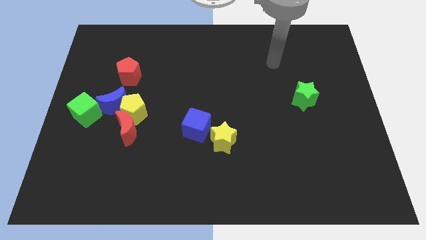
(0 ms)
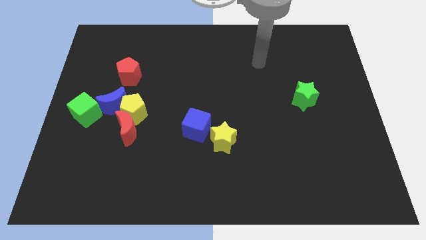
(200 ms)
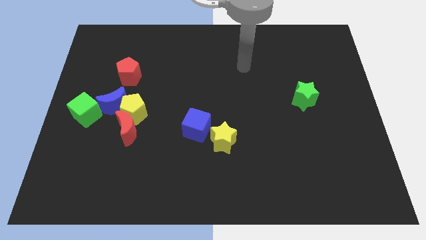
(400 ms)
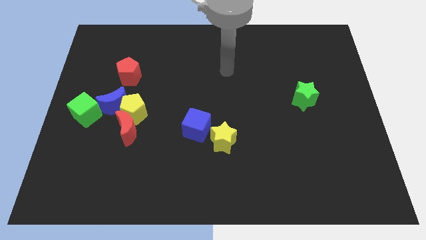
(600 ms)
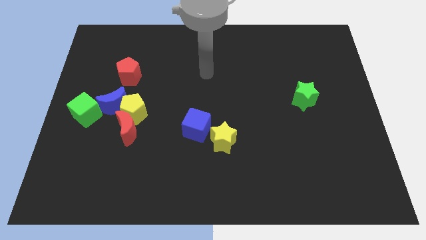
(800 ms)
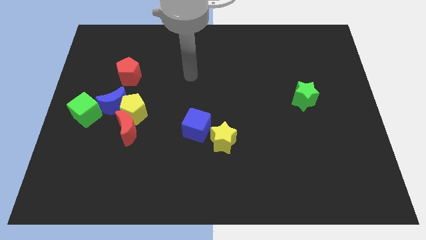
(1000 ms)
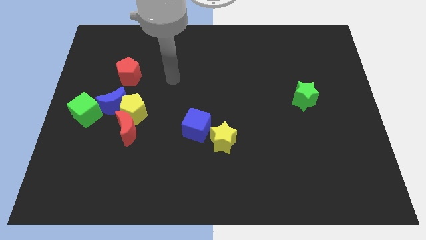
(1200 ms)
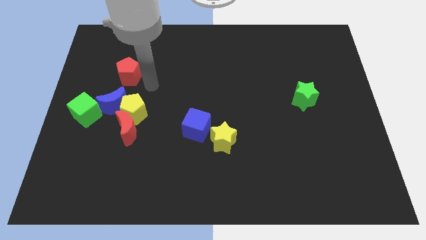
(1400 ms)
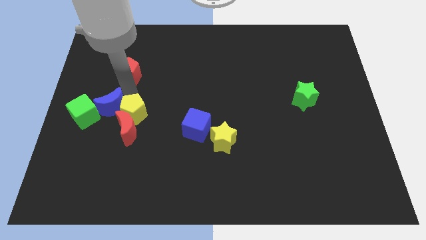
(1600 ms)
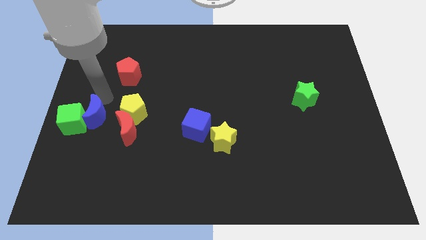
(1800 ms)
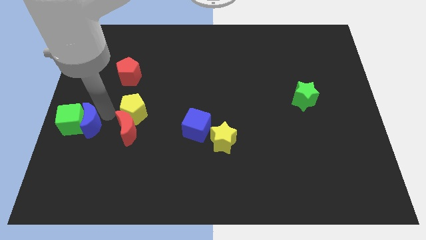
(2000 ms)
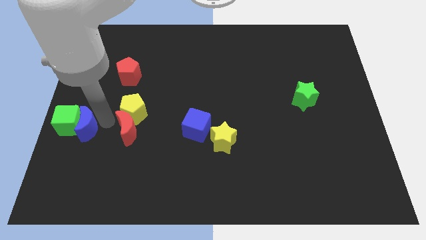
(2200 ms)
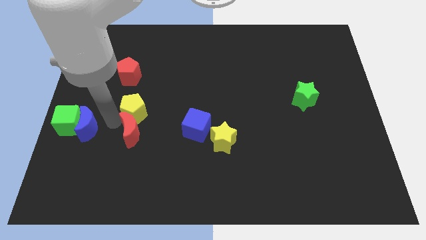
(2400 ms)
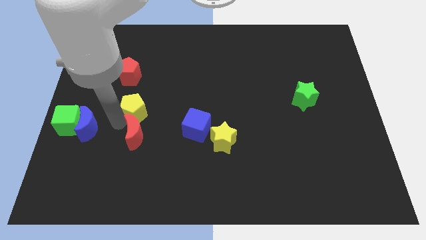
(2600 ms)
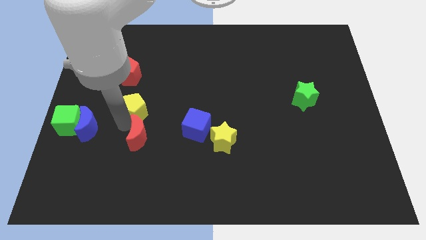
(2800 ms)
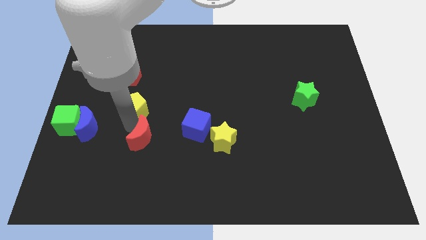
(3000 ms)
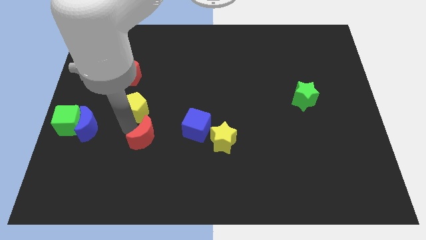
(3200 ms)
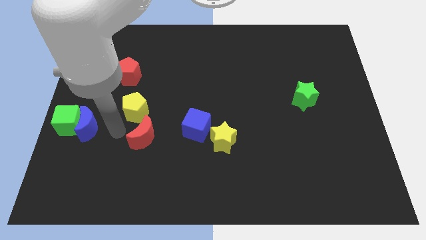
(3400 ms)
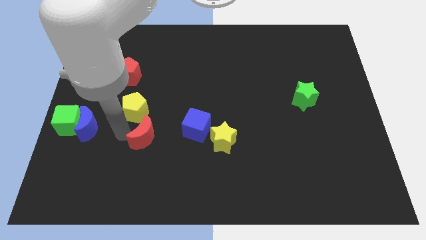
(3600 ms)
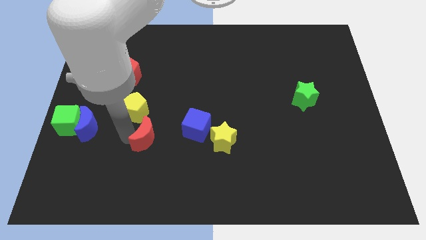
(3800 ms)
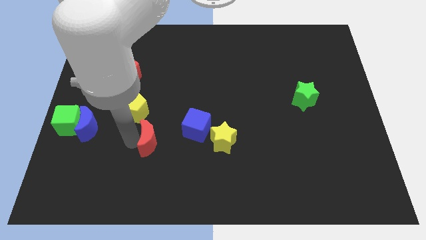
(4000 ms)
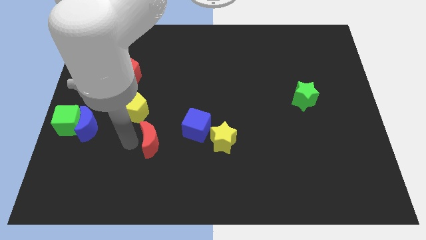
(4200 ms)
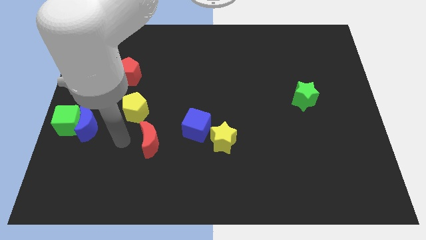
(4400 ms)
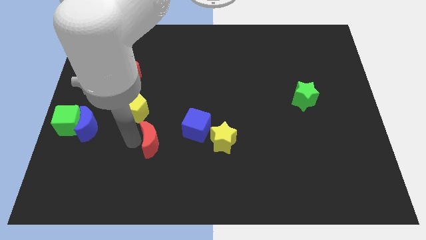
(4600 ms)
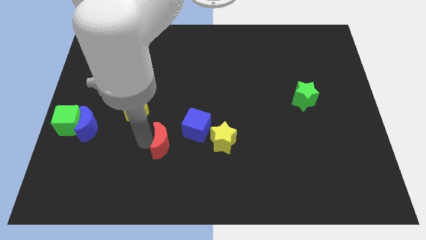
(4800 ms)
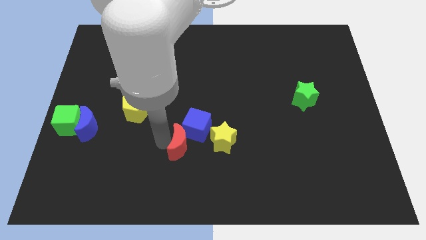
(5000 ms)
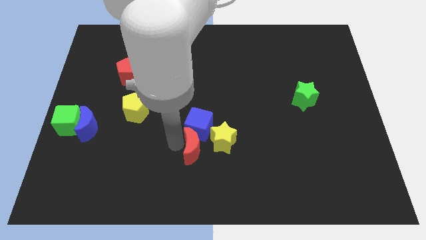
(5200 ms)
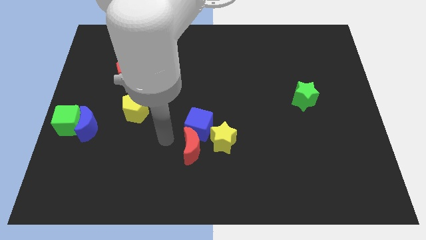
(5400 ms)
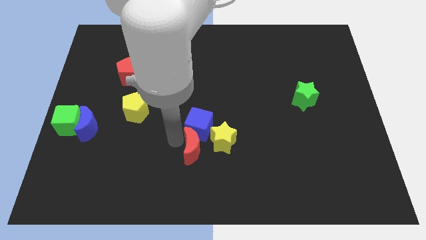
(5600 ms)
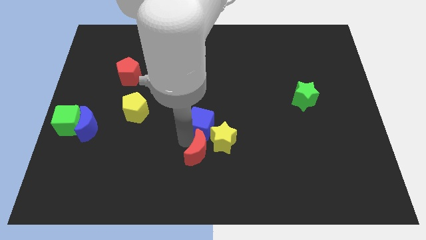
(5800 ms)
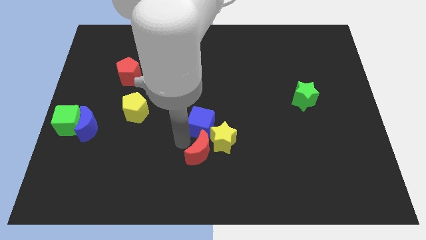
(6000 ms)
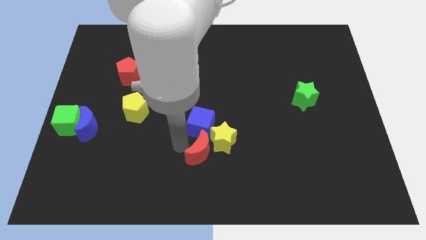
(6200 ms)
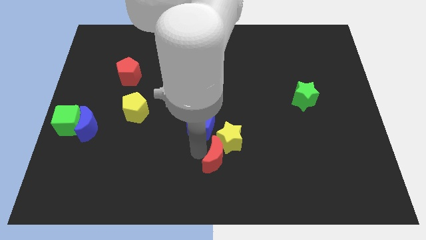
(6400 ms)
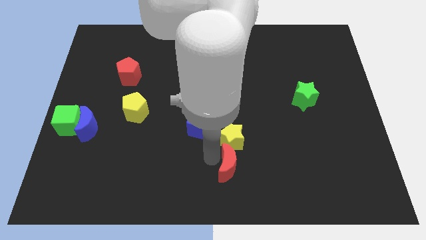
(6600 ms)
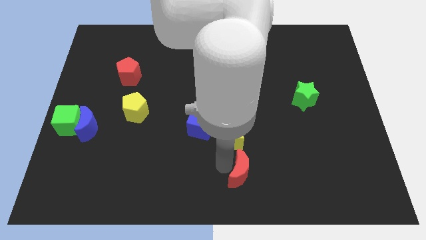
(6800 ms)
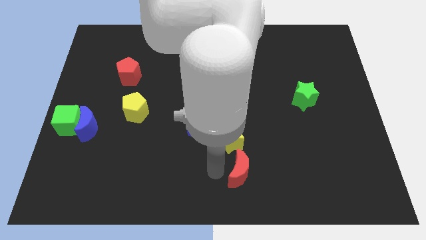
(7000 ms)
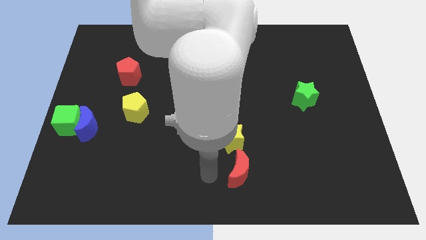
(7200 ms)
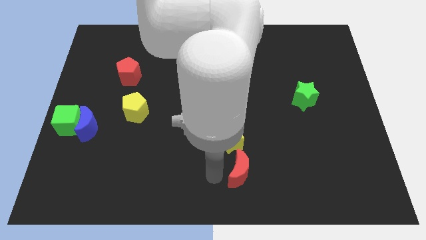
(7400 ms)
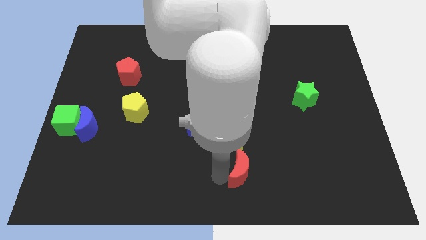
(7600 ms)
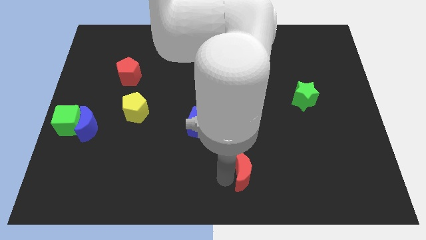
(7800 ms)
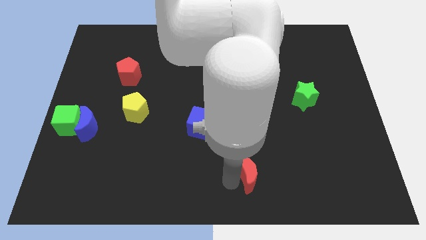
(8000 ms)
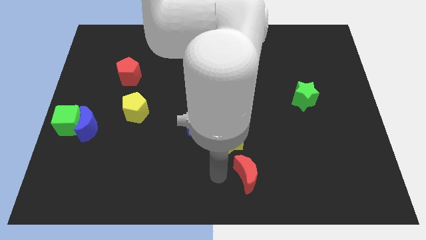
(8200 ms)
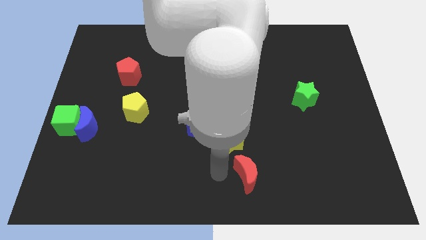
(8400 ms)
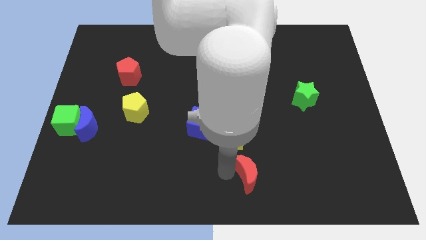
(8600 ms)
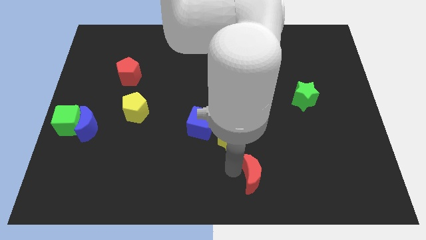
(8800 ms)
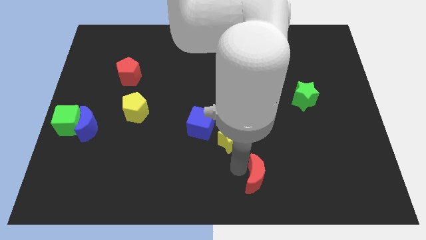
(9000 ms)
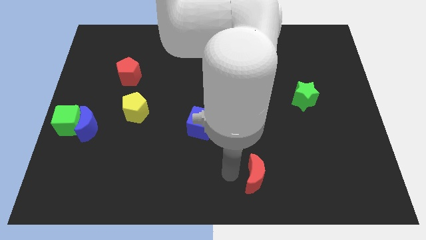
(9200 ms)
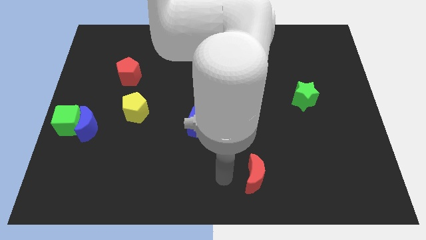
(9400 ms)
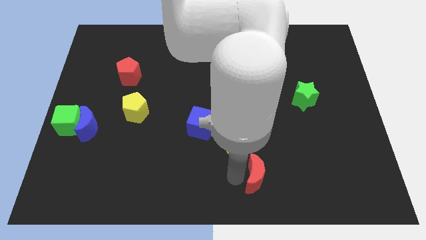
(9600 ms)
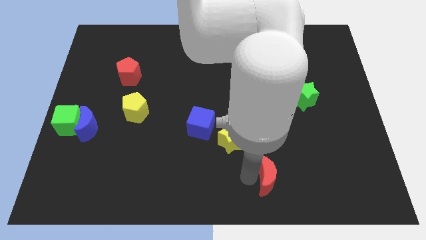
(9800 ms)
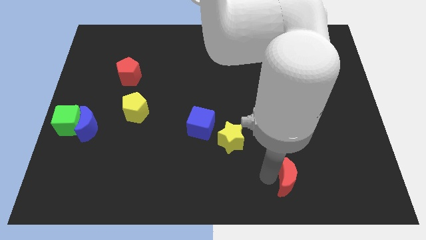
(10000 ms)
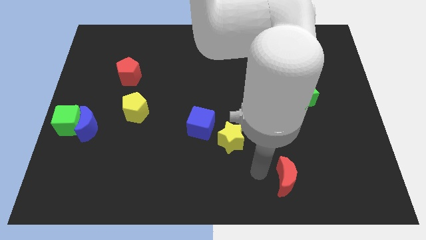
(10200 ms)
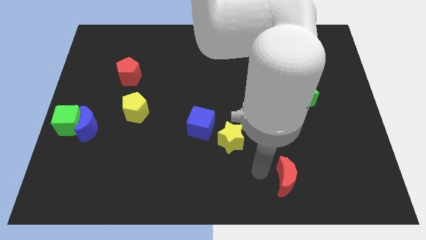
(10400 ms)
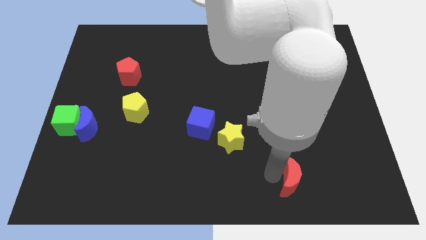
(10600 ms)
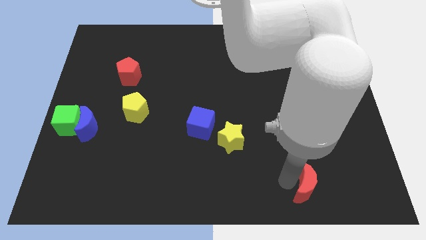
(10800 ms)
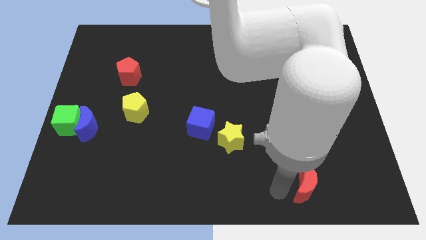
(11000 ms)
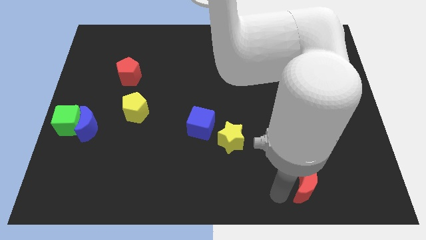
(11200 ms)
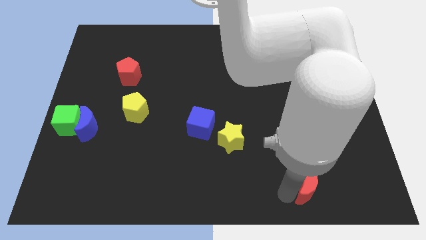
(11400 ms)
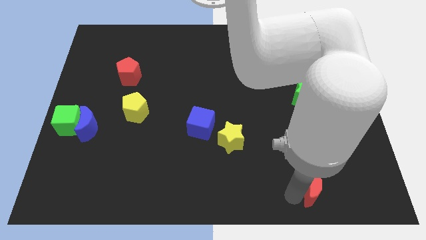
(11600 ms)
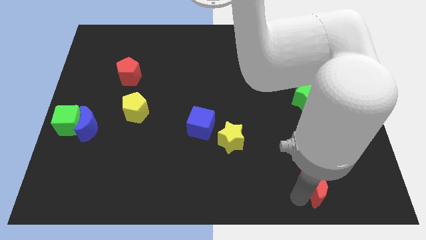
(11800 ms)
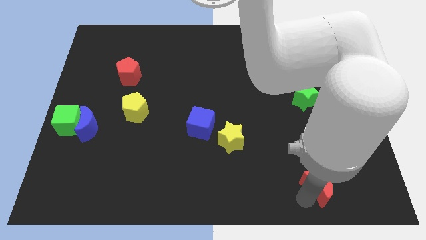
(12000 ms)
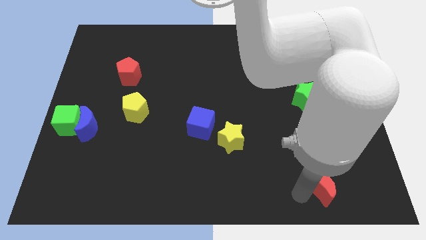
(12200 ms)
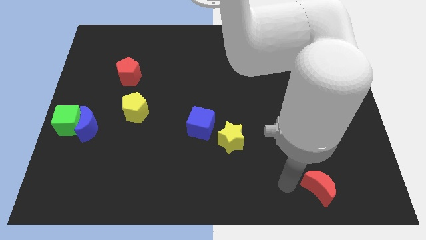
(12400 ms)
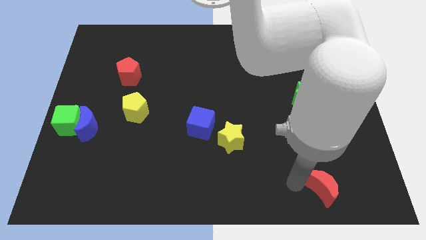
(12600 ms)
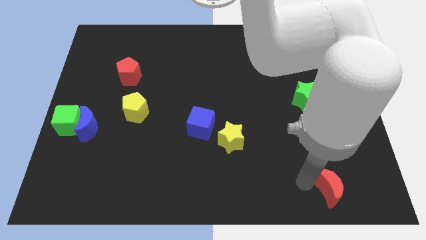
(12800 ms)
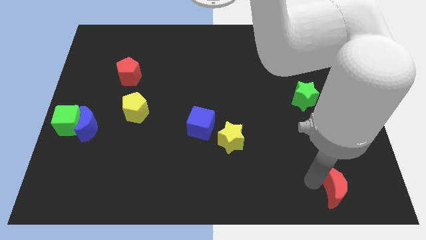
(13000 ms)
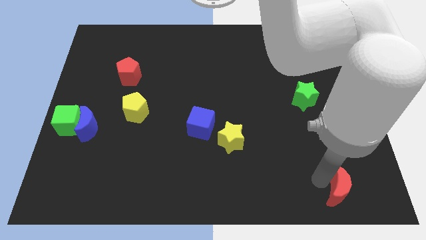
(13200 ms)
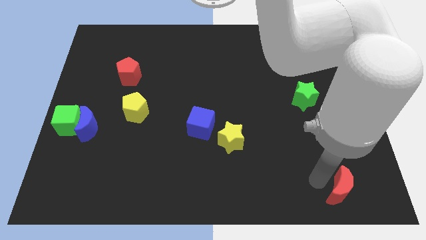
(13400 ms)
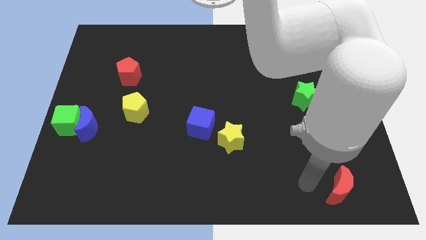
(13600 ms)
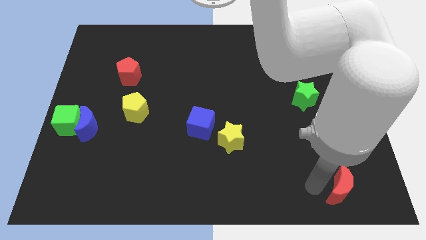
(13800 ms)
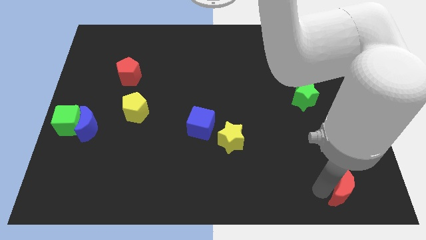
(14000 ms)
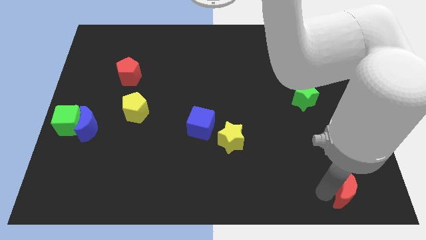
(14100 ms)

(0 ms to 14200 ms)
push the red moon to the bottom right

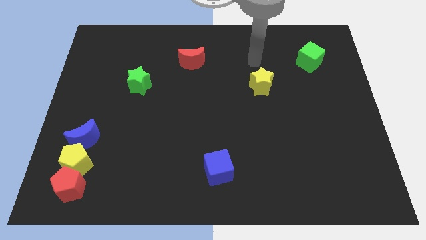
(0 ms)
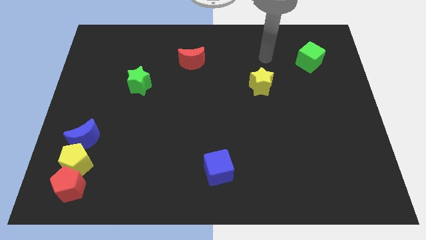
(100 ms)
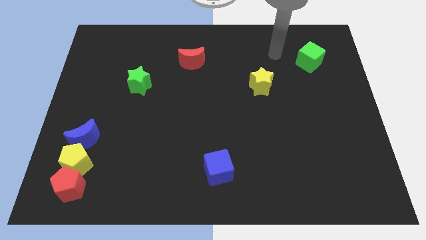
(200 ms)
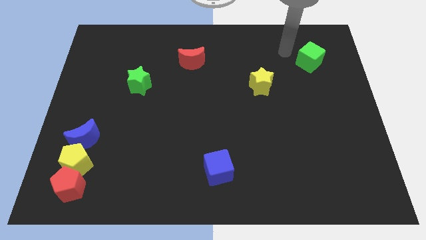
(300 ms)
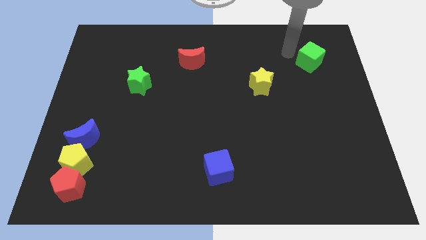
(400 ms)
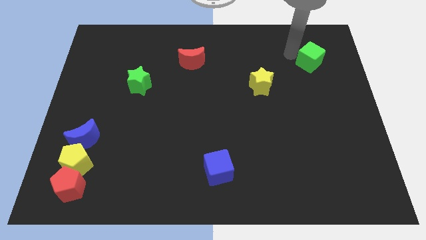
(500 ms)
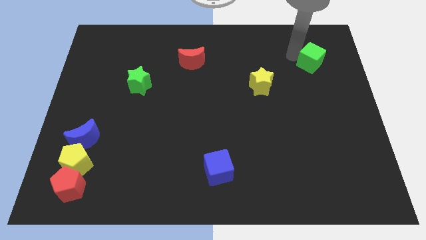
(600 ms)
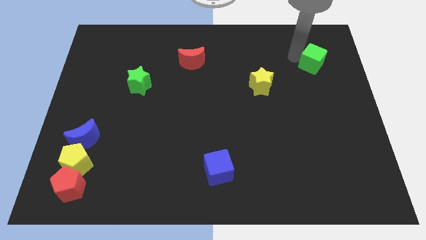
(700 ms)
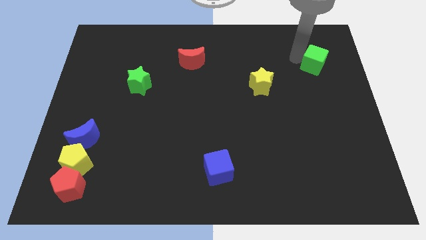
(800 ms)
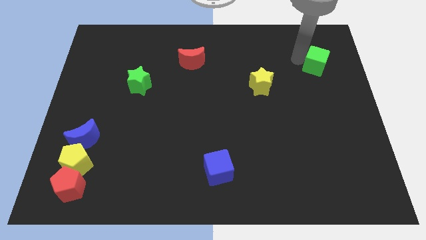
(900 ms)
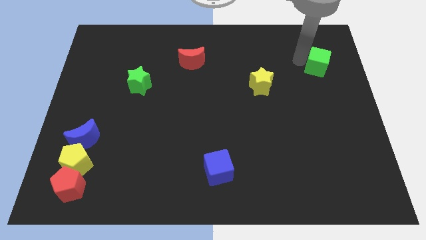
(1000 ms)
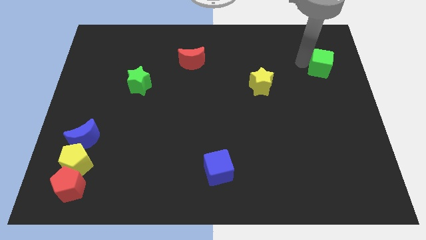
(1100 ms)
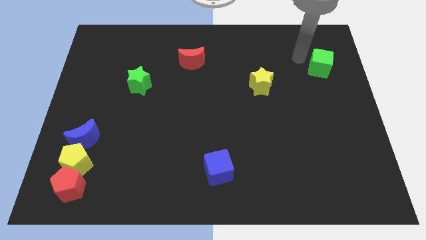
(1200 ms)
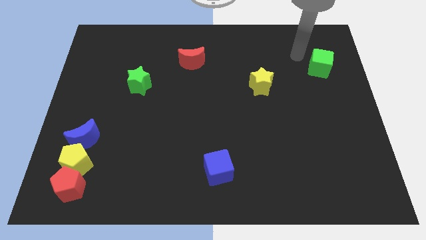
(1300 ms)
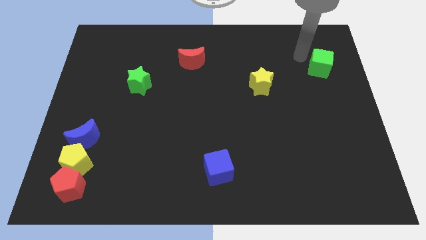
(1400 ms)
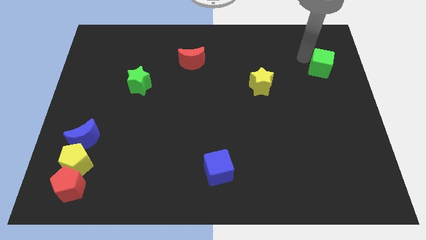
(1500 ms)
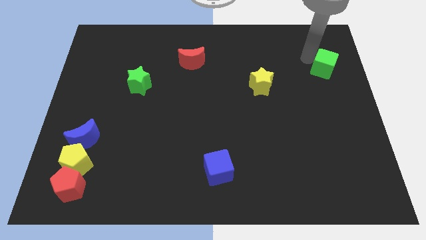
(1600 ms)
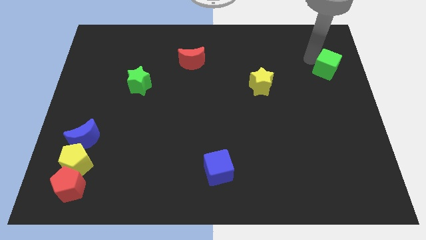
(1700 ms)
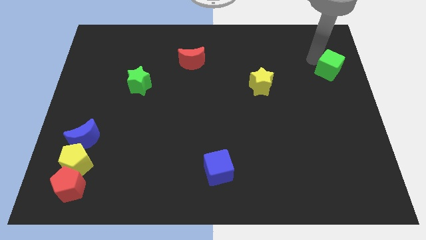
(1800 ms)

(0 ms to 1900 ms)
move the green cube to the right side
